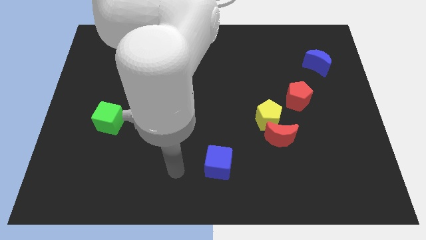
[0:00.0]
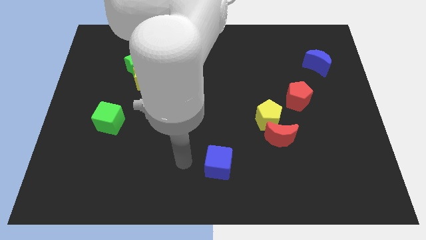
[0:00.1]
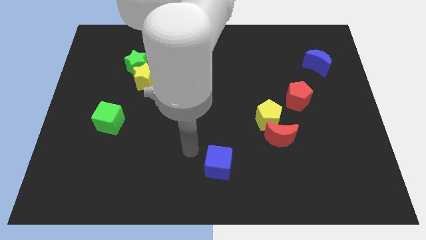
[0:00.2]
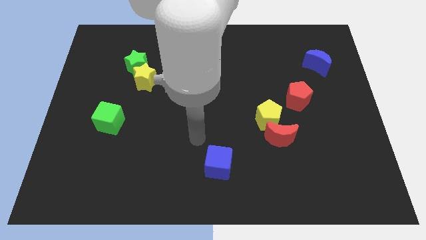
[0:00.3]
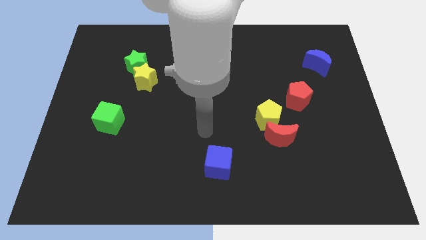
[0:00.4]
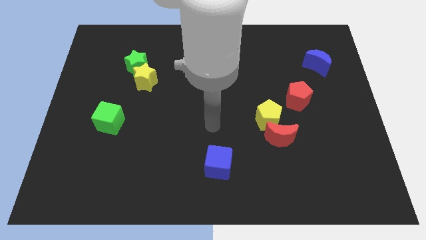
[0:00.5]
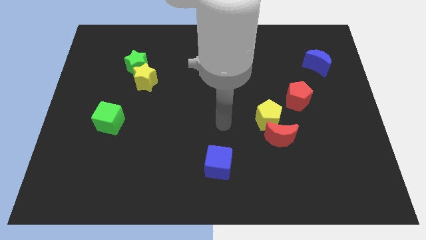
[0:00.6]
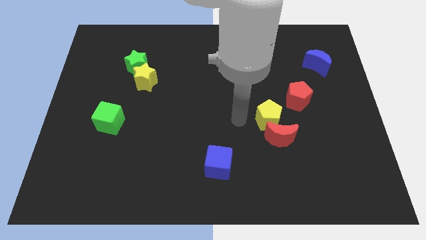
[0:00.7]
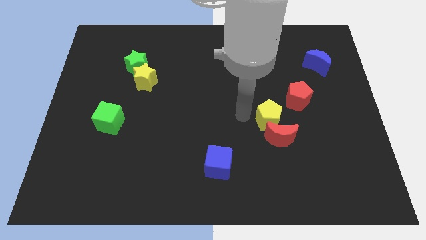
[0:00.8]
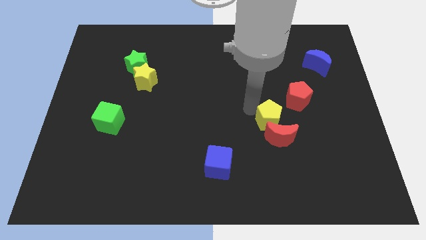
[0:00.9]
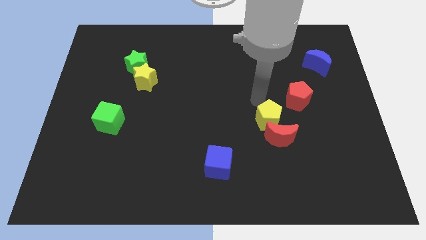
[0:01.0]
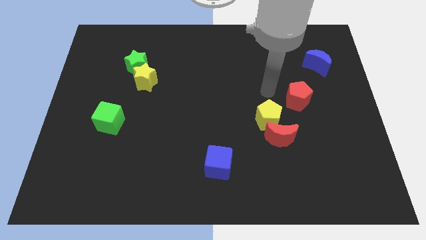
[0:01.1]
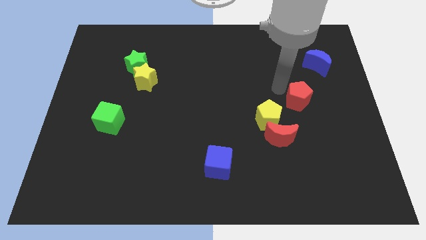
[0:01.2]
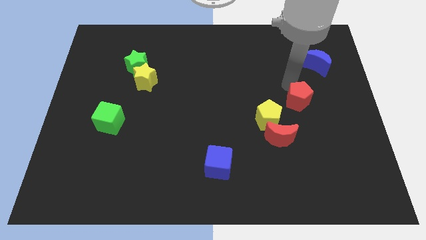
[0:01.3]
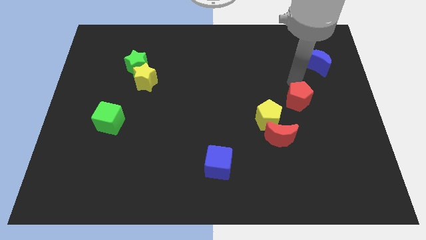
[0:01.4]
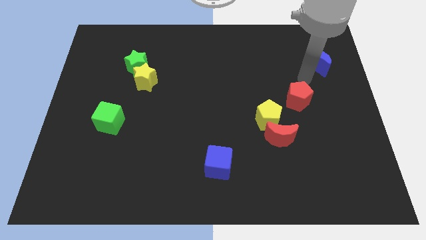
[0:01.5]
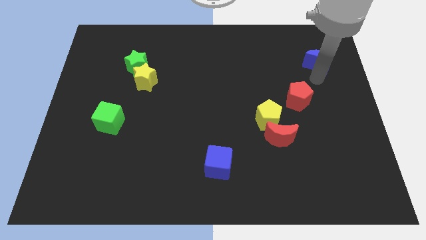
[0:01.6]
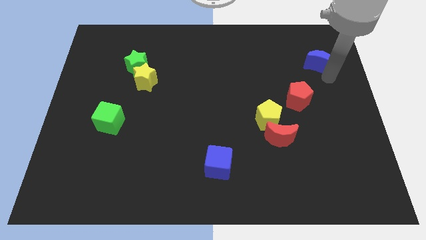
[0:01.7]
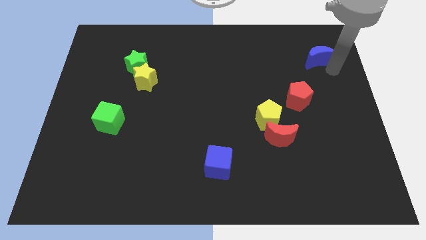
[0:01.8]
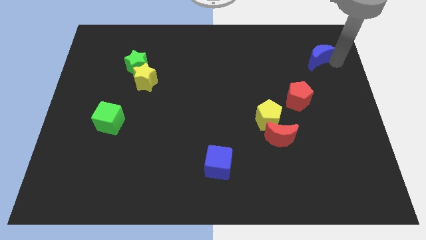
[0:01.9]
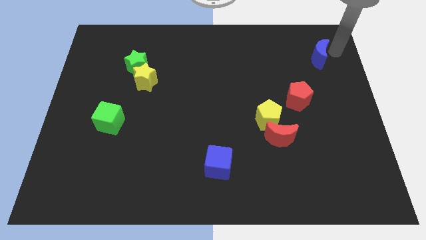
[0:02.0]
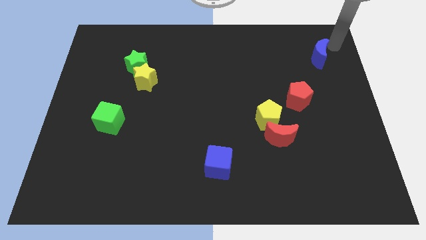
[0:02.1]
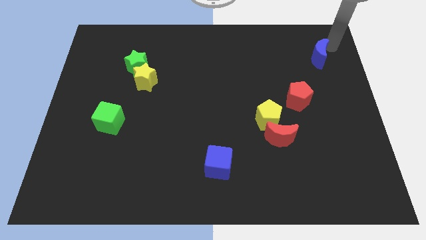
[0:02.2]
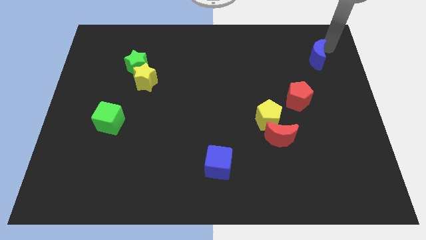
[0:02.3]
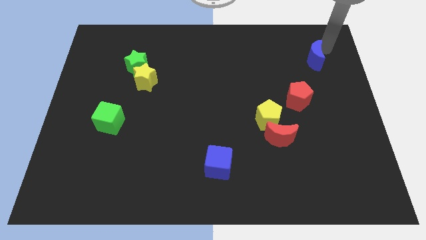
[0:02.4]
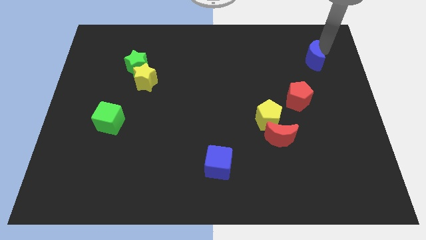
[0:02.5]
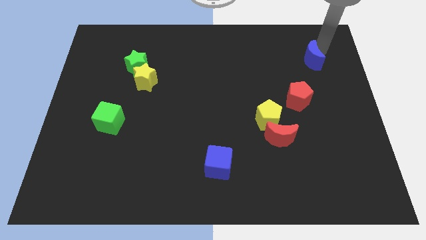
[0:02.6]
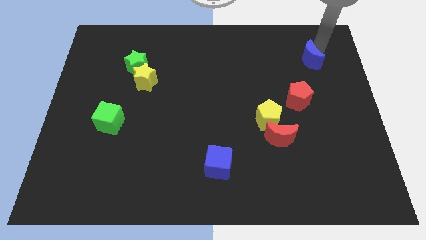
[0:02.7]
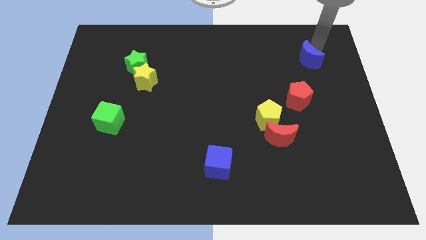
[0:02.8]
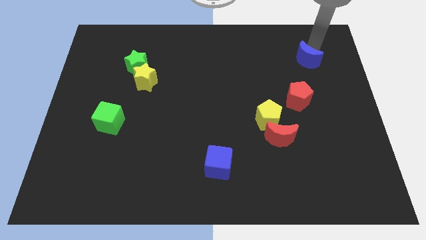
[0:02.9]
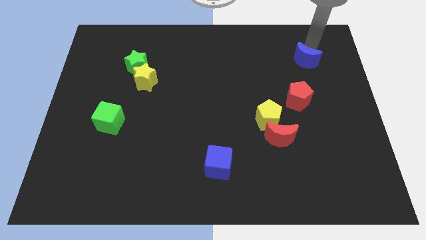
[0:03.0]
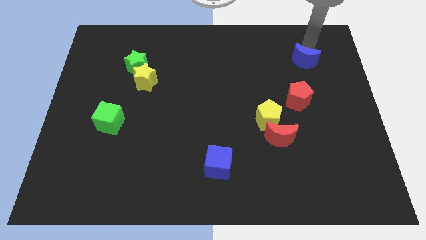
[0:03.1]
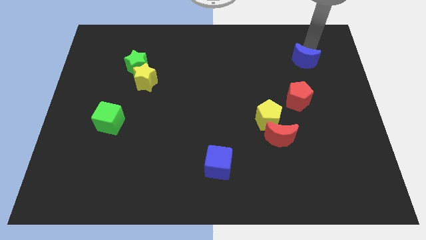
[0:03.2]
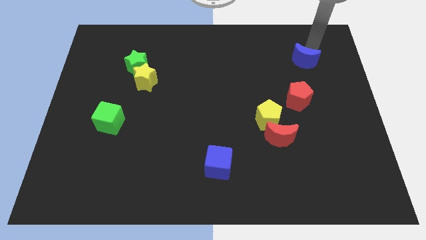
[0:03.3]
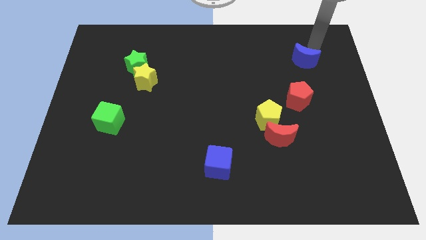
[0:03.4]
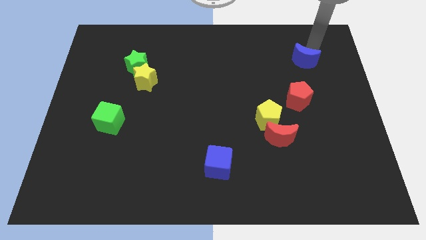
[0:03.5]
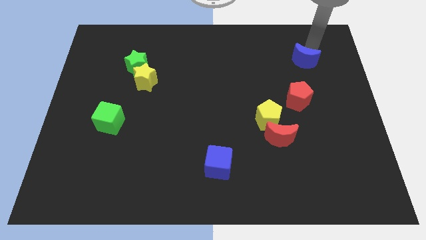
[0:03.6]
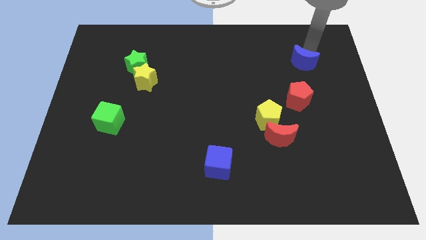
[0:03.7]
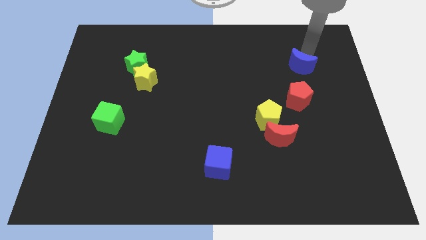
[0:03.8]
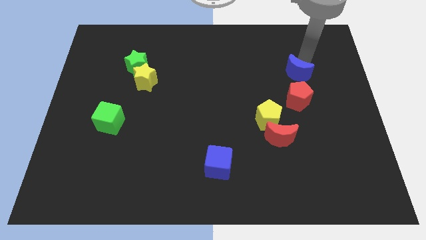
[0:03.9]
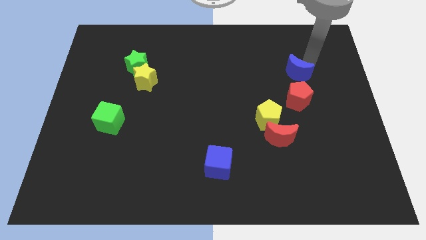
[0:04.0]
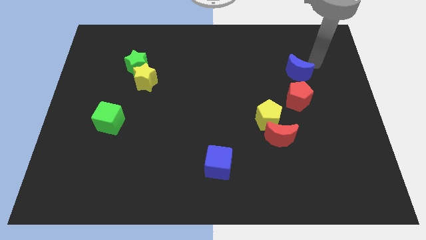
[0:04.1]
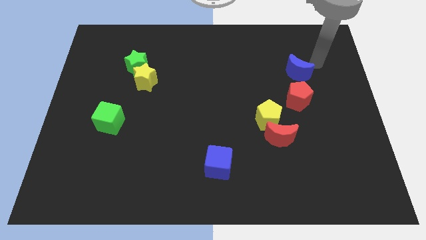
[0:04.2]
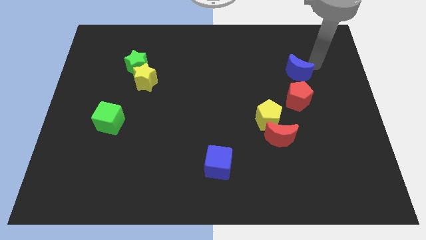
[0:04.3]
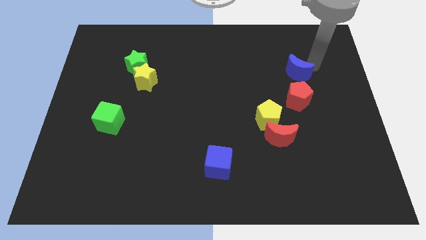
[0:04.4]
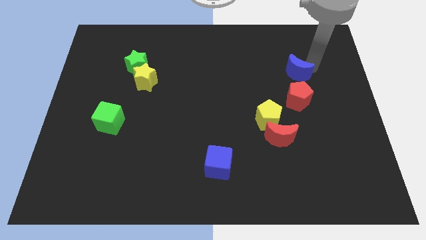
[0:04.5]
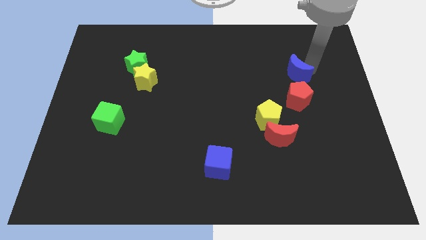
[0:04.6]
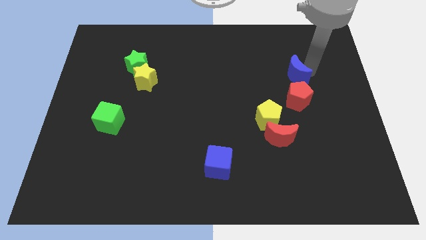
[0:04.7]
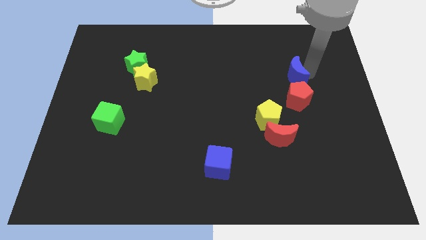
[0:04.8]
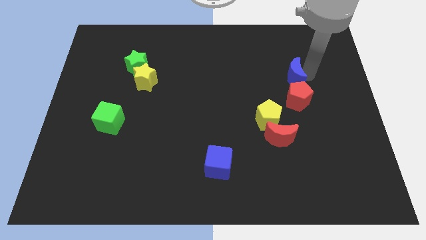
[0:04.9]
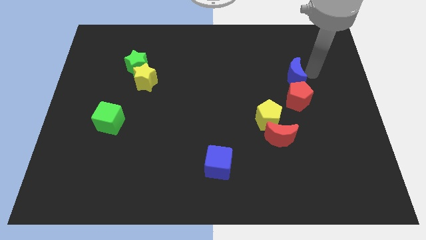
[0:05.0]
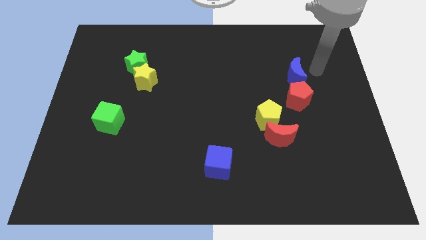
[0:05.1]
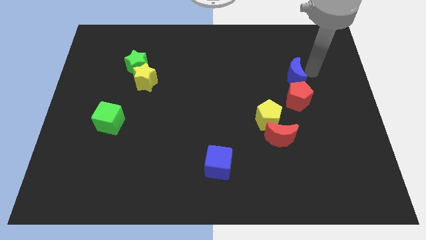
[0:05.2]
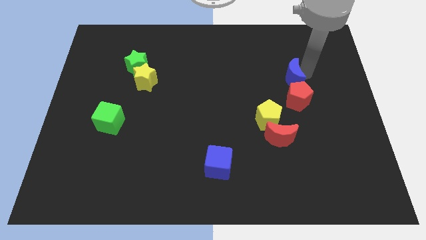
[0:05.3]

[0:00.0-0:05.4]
put the blue moon to the top left side of the red pentagon

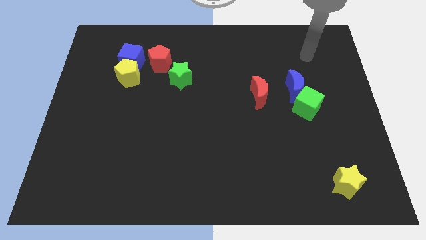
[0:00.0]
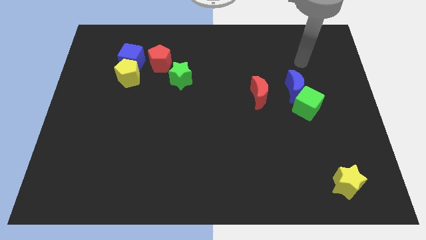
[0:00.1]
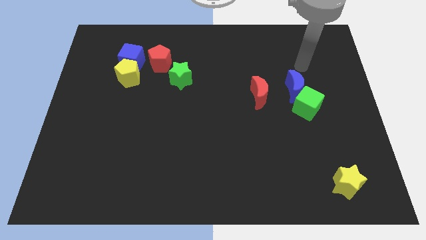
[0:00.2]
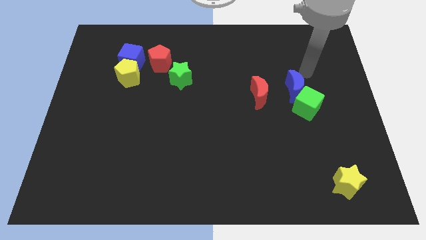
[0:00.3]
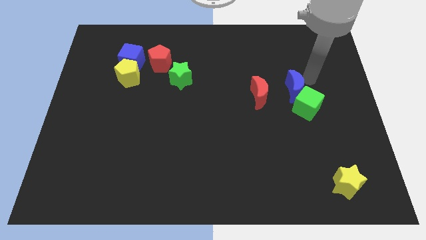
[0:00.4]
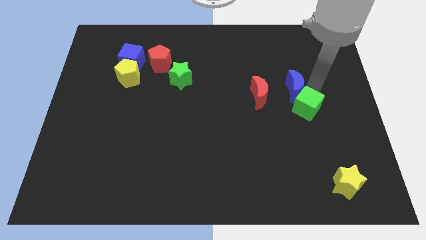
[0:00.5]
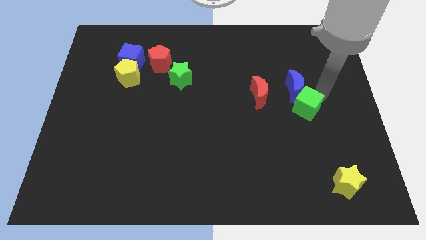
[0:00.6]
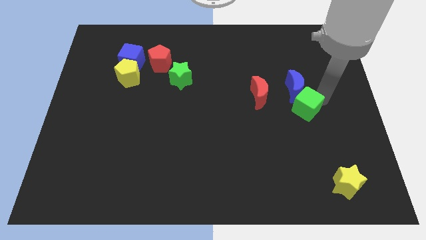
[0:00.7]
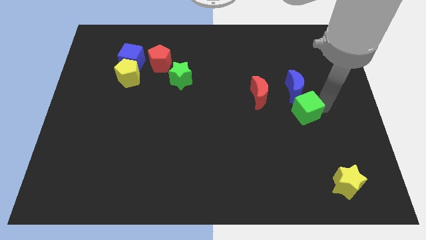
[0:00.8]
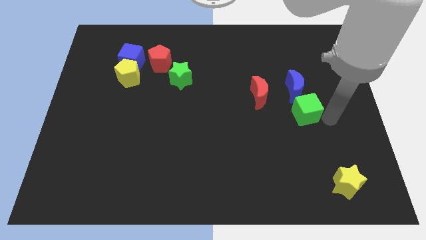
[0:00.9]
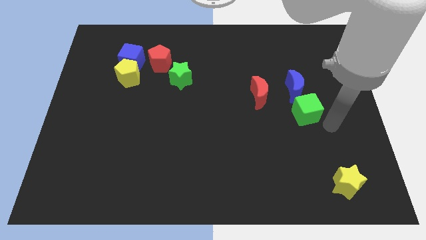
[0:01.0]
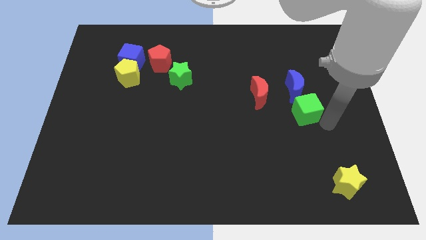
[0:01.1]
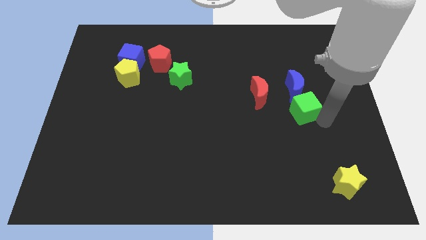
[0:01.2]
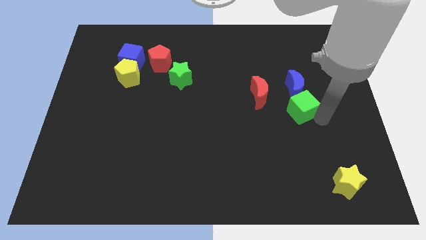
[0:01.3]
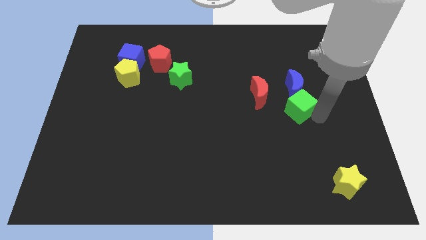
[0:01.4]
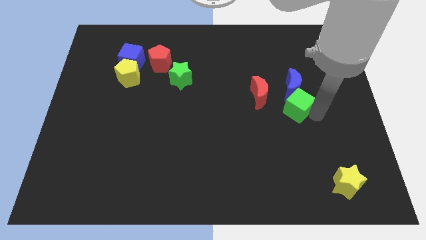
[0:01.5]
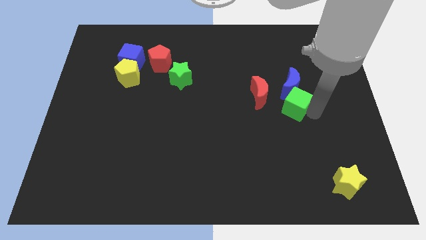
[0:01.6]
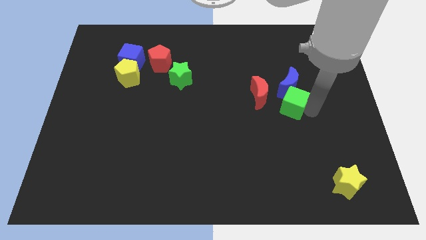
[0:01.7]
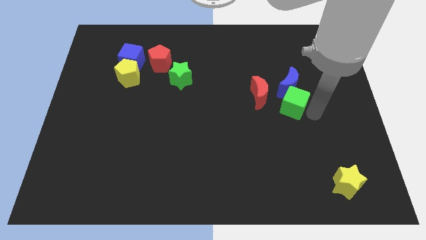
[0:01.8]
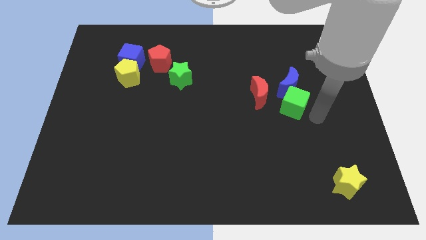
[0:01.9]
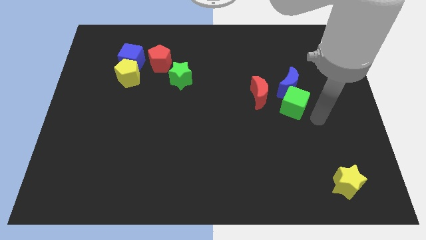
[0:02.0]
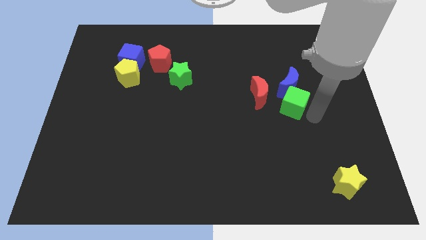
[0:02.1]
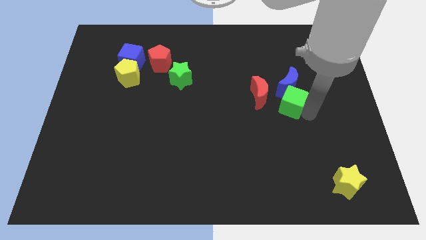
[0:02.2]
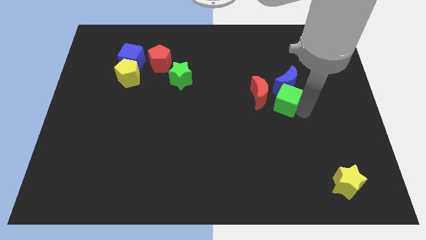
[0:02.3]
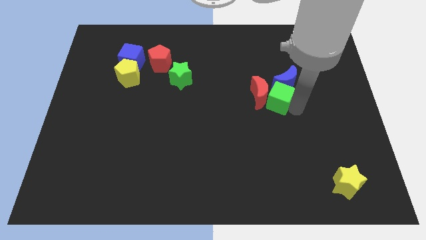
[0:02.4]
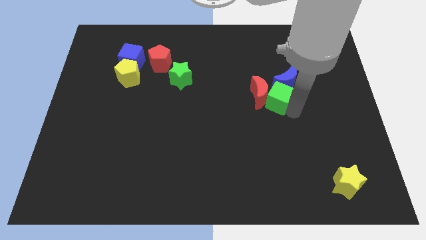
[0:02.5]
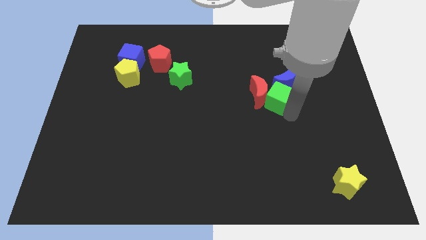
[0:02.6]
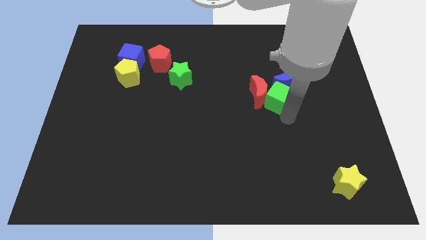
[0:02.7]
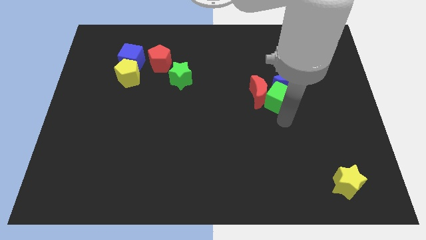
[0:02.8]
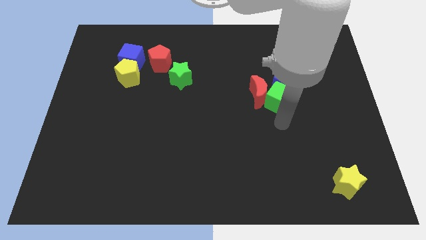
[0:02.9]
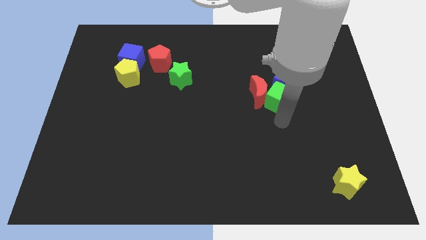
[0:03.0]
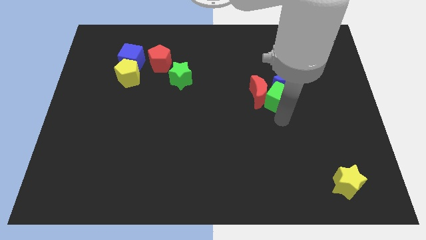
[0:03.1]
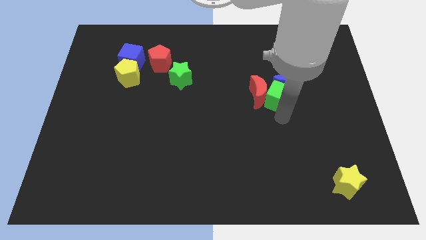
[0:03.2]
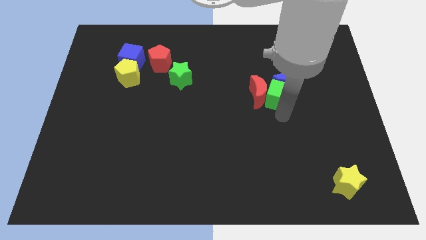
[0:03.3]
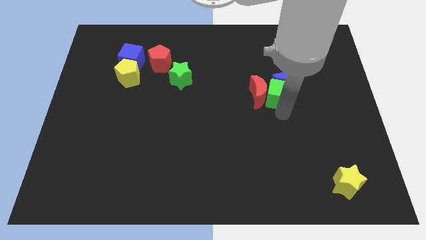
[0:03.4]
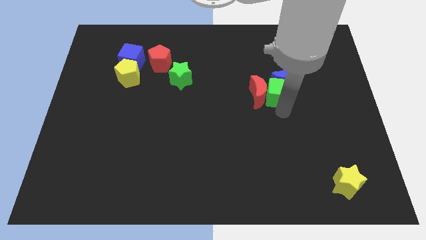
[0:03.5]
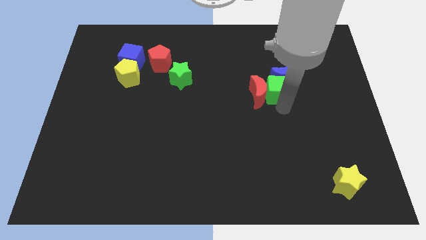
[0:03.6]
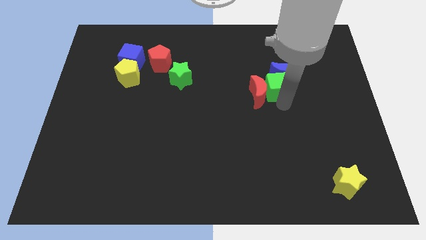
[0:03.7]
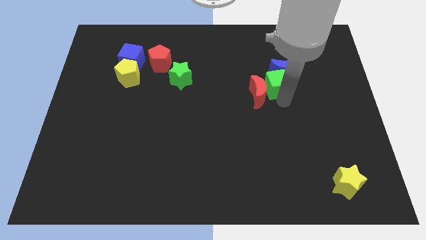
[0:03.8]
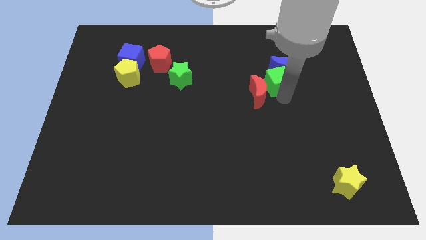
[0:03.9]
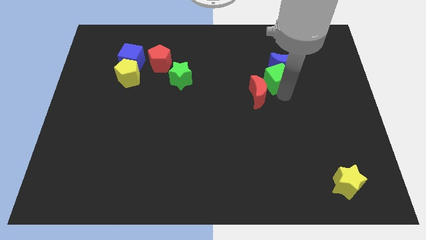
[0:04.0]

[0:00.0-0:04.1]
move the green cube to the top side of the red moon
